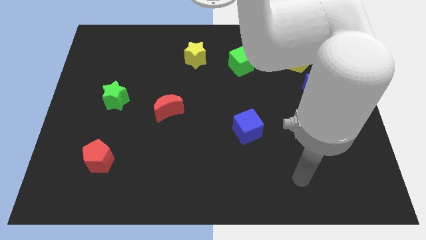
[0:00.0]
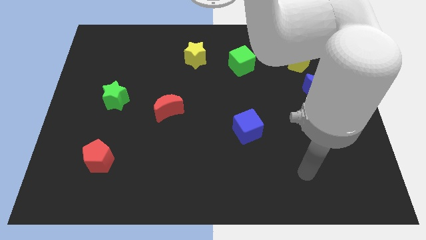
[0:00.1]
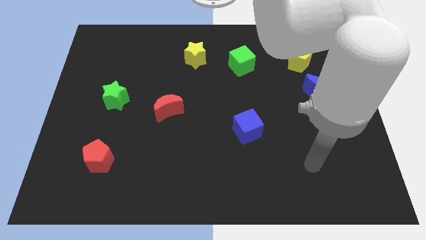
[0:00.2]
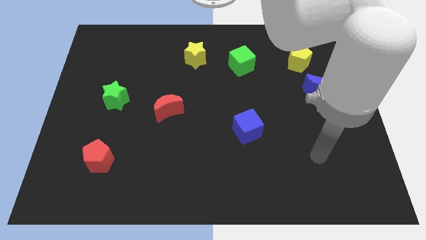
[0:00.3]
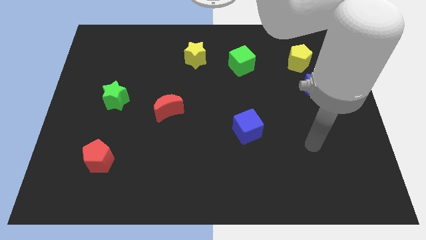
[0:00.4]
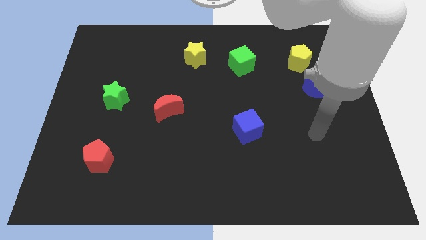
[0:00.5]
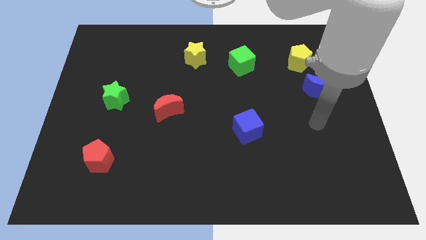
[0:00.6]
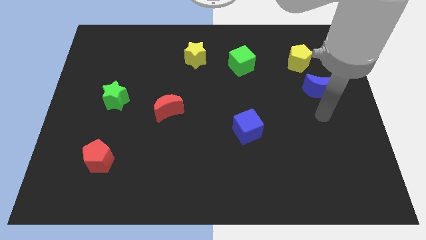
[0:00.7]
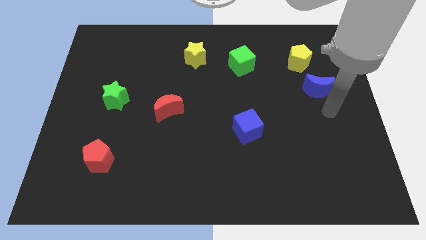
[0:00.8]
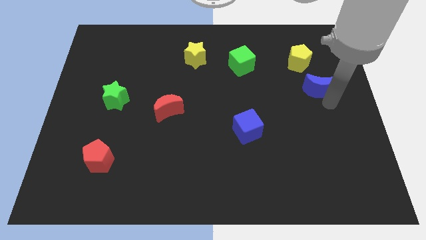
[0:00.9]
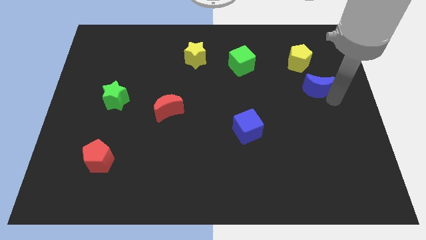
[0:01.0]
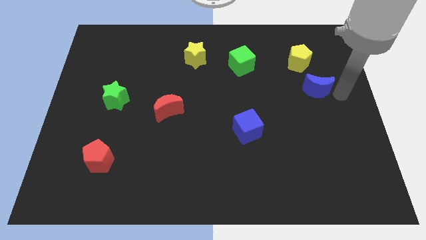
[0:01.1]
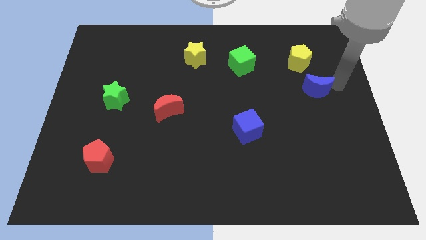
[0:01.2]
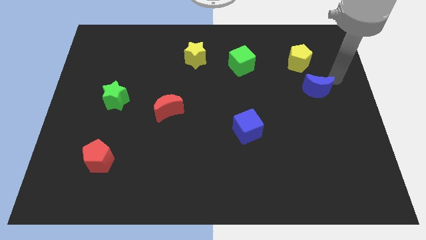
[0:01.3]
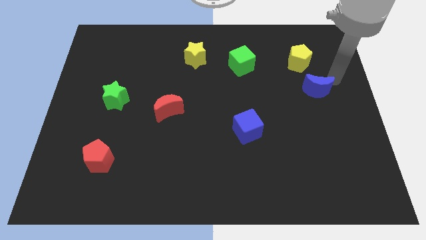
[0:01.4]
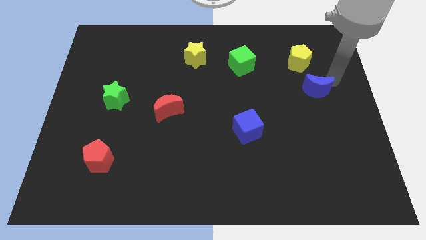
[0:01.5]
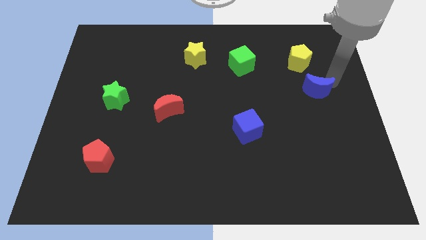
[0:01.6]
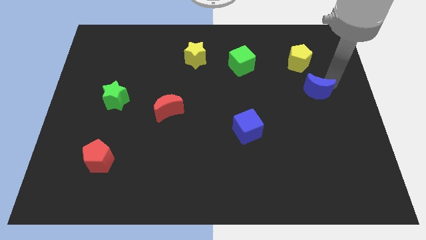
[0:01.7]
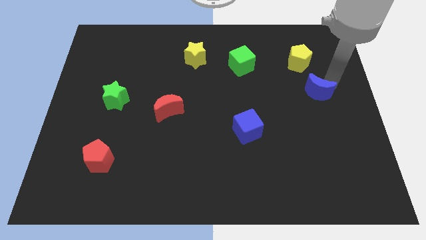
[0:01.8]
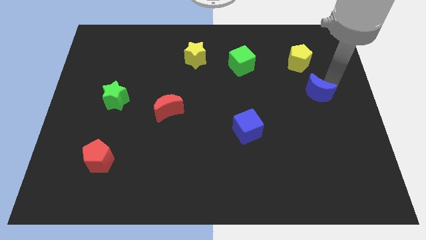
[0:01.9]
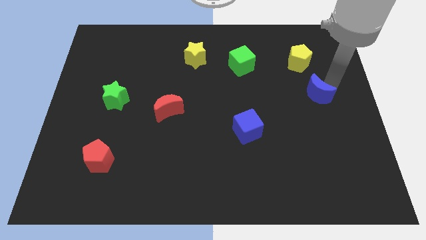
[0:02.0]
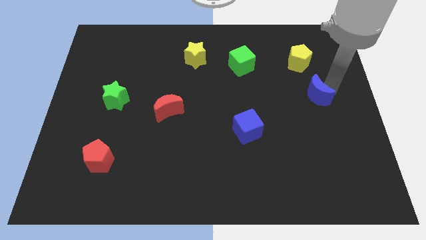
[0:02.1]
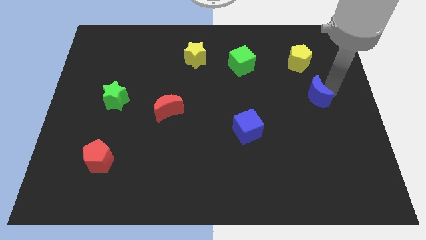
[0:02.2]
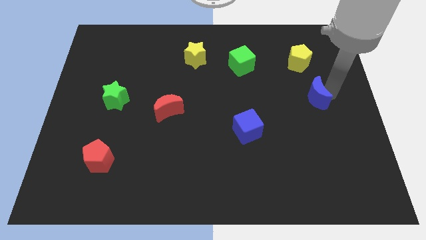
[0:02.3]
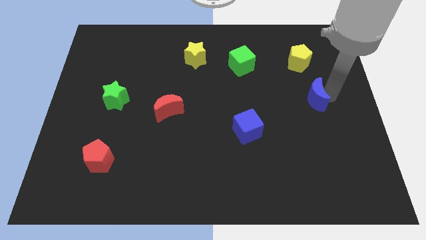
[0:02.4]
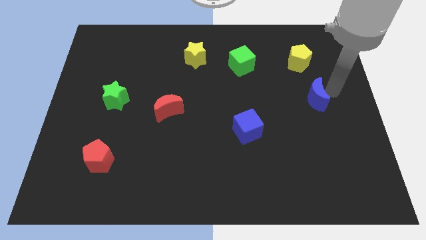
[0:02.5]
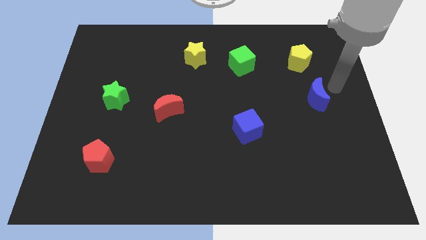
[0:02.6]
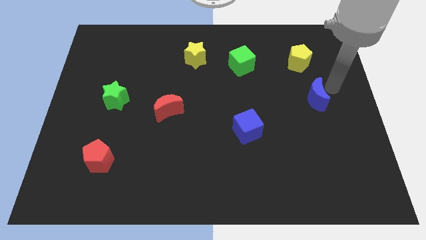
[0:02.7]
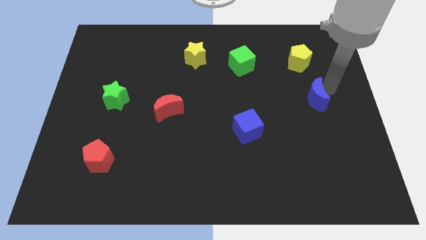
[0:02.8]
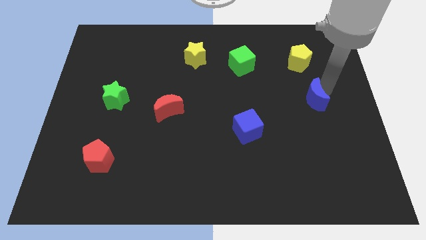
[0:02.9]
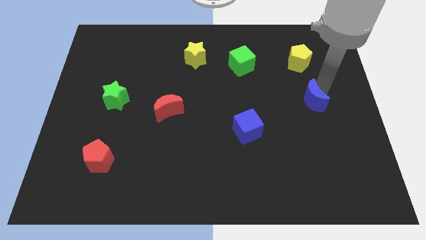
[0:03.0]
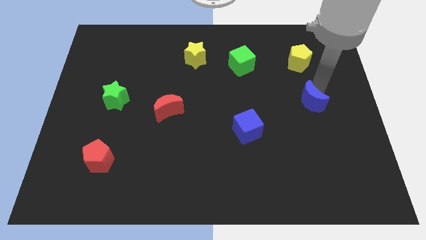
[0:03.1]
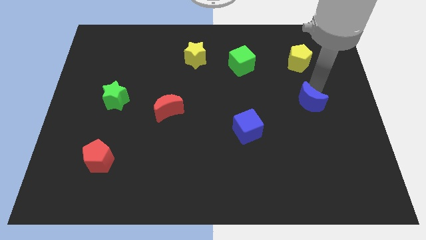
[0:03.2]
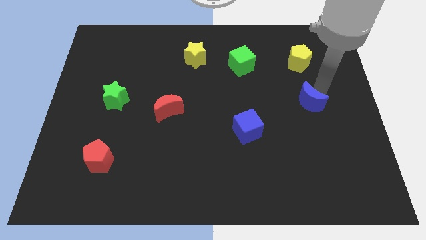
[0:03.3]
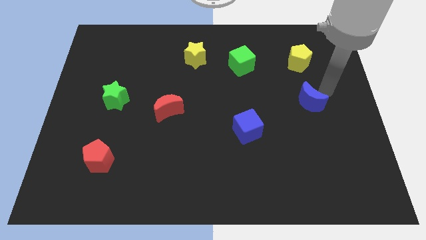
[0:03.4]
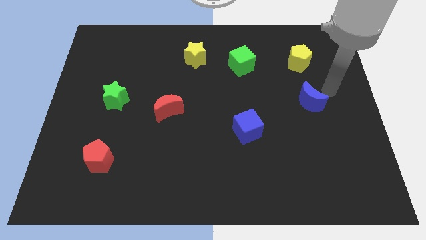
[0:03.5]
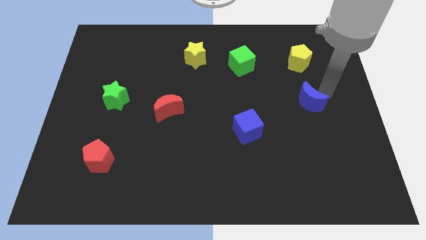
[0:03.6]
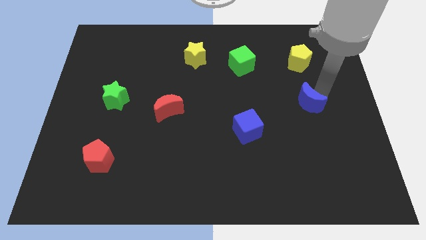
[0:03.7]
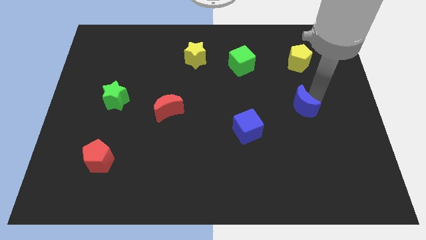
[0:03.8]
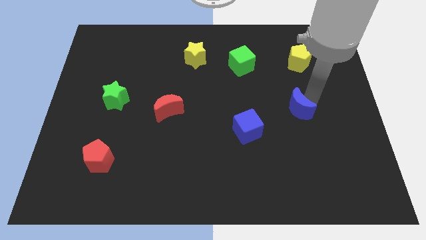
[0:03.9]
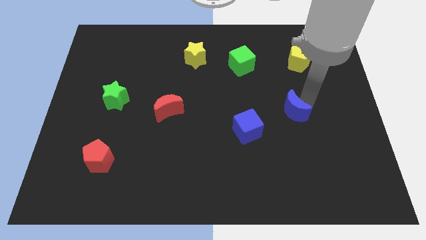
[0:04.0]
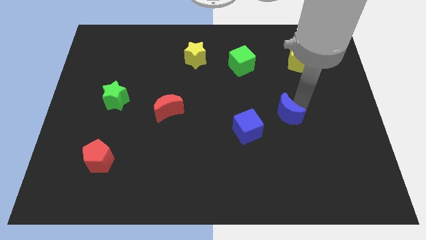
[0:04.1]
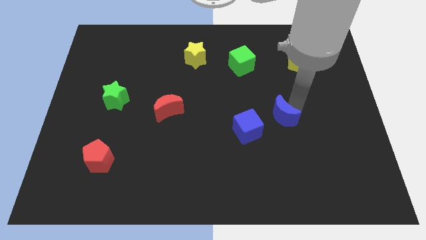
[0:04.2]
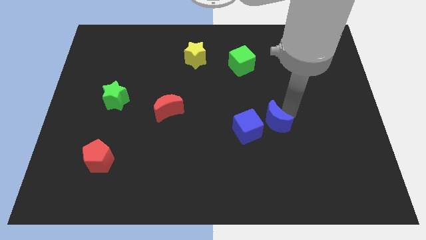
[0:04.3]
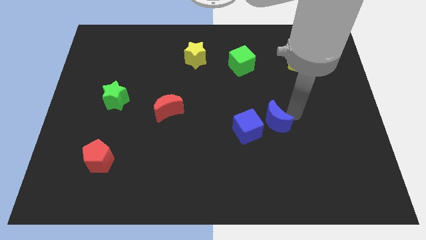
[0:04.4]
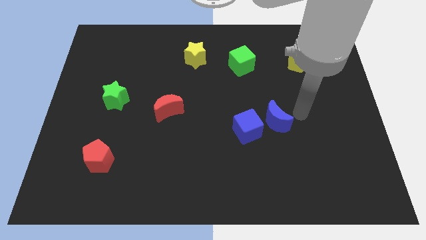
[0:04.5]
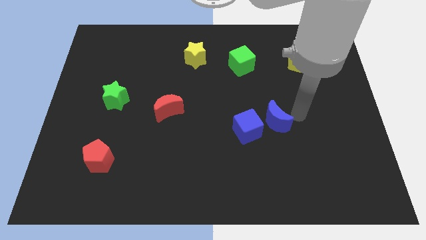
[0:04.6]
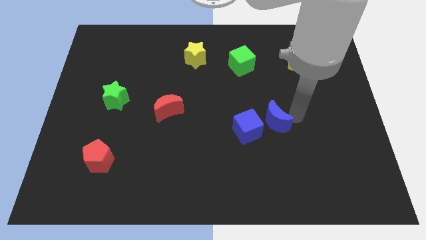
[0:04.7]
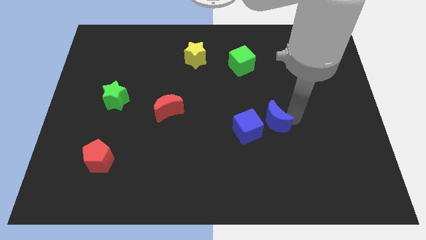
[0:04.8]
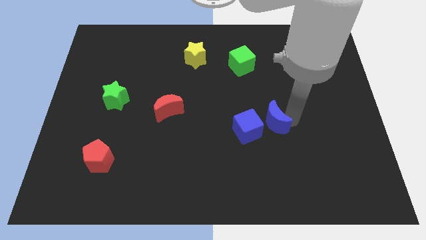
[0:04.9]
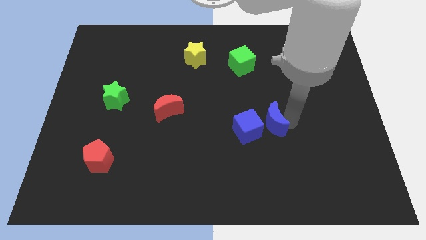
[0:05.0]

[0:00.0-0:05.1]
push the blue moon towards the blue cube

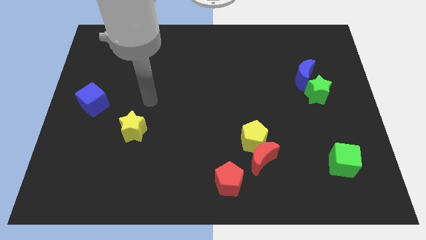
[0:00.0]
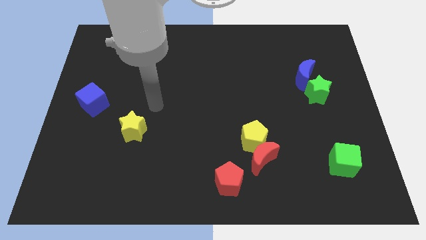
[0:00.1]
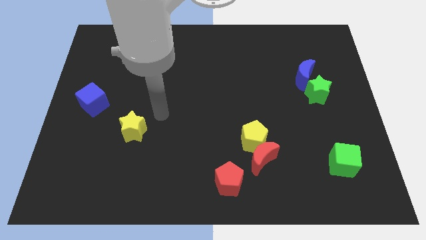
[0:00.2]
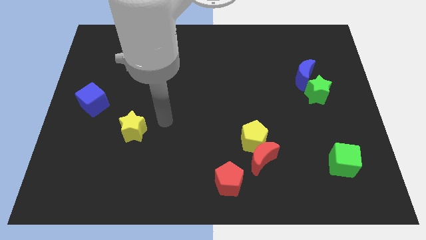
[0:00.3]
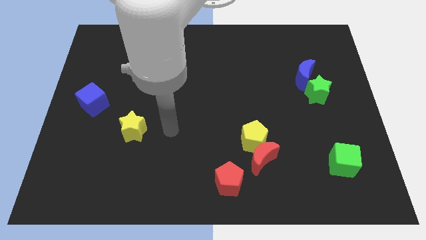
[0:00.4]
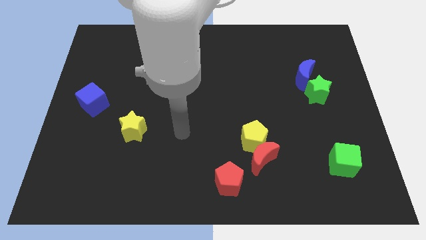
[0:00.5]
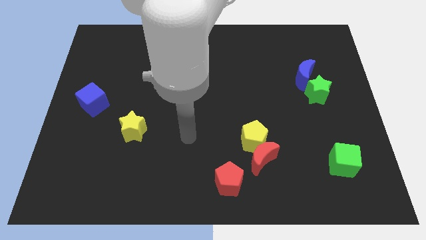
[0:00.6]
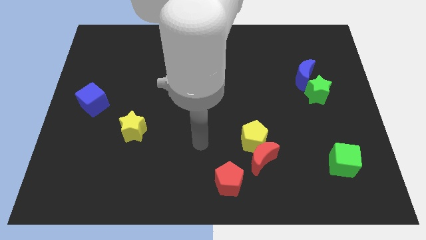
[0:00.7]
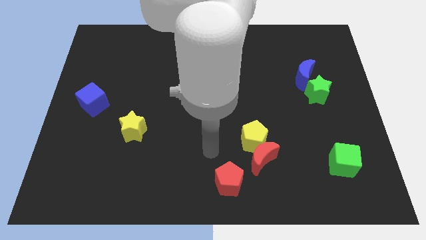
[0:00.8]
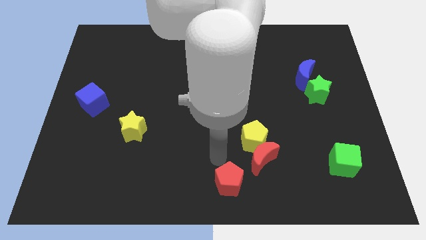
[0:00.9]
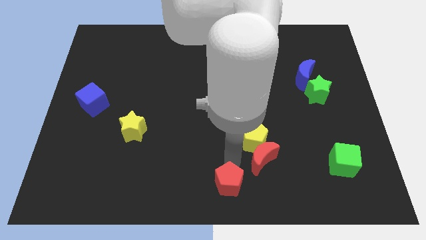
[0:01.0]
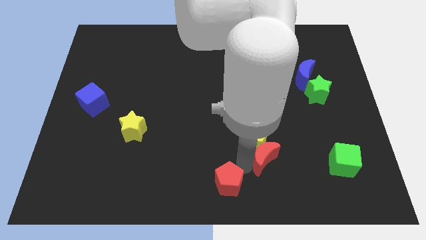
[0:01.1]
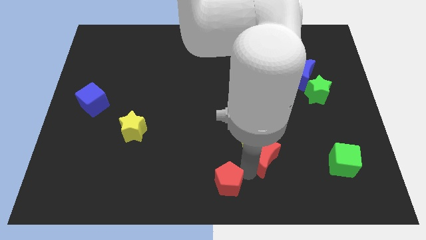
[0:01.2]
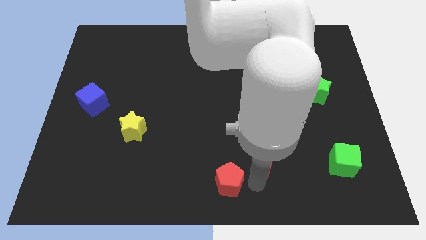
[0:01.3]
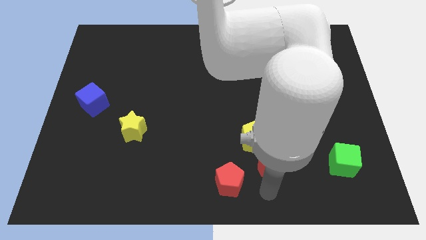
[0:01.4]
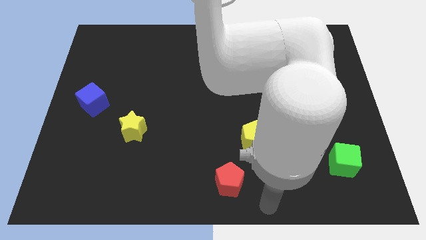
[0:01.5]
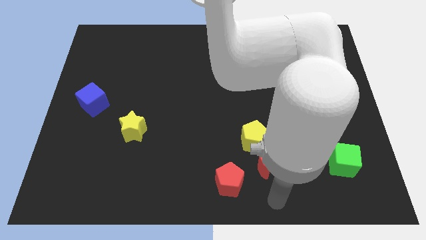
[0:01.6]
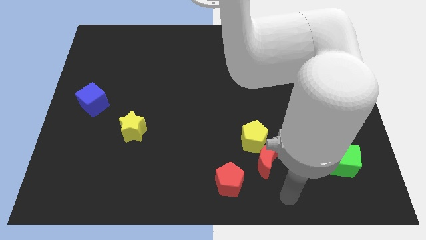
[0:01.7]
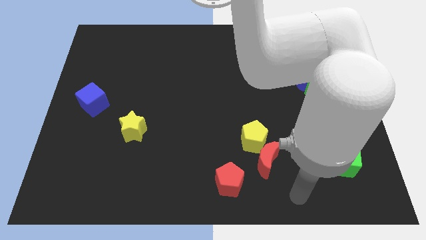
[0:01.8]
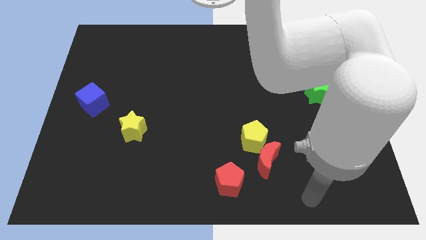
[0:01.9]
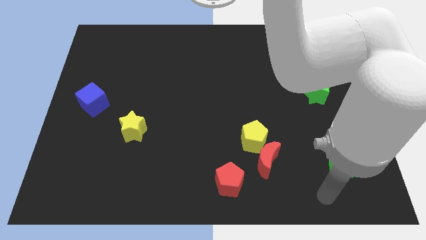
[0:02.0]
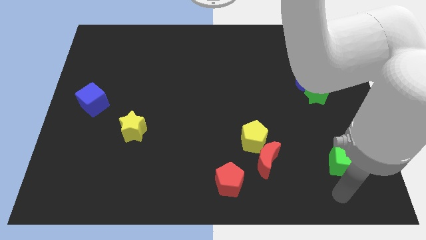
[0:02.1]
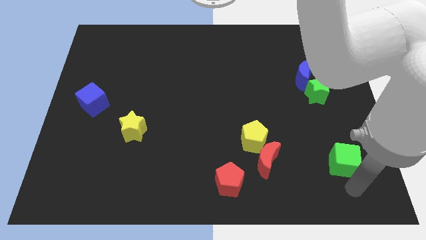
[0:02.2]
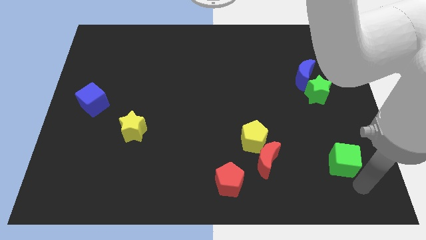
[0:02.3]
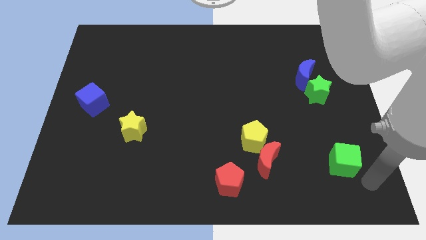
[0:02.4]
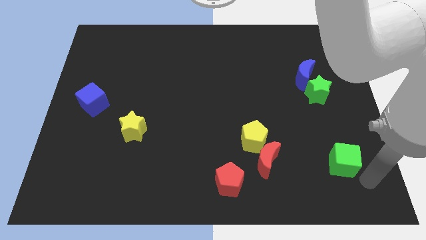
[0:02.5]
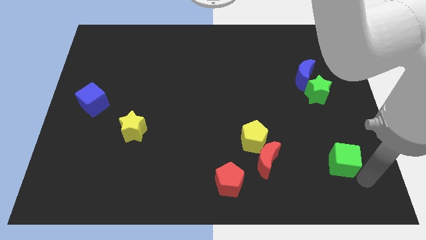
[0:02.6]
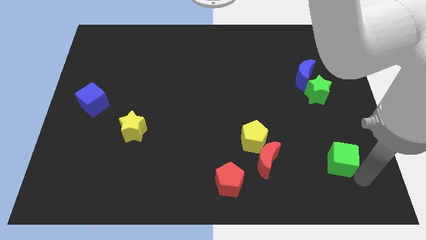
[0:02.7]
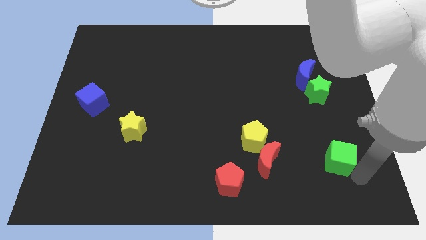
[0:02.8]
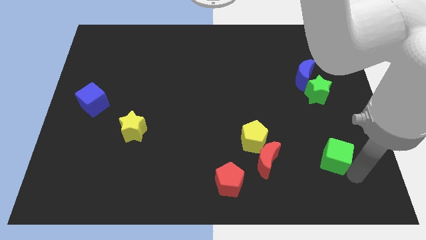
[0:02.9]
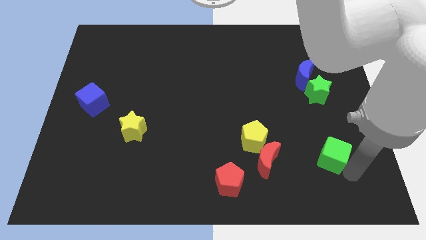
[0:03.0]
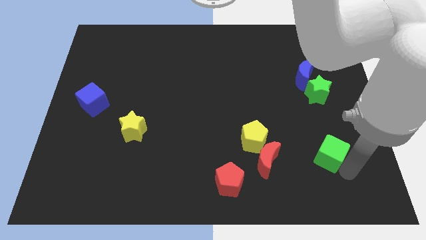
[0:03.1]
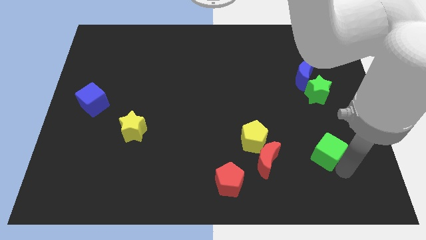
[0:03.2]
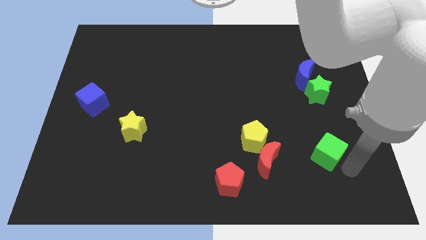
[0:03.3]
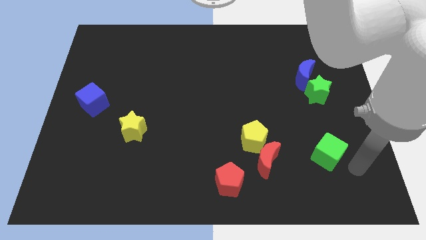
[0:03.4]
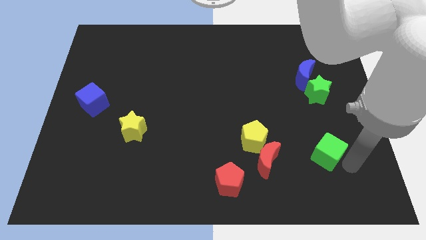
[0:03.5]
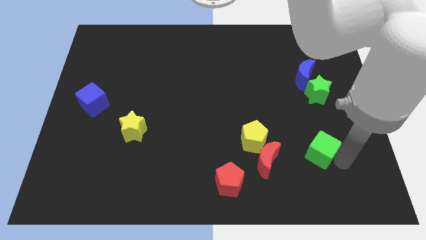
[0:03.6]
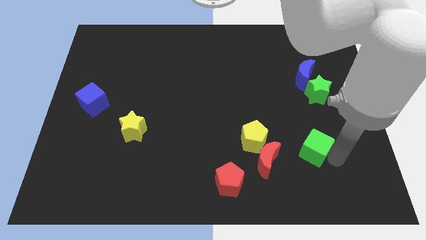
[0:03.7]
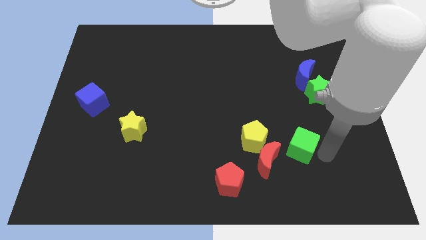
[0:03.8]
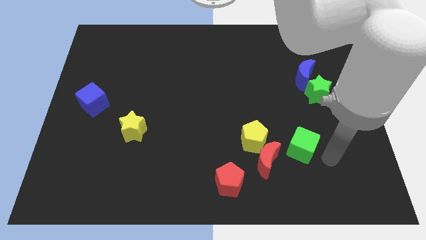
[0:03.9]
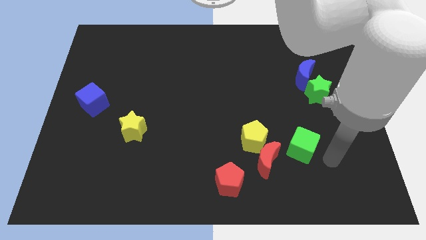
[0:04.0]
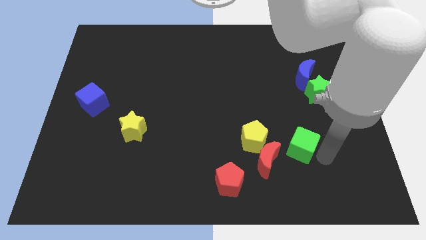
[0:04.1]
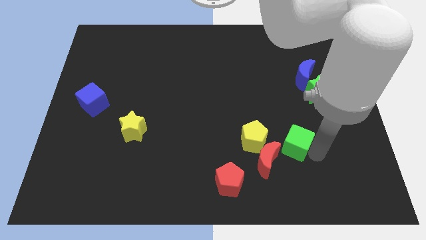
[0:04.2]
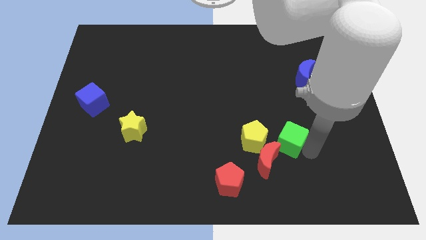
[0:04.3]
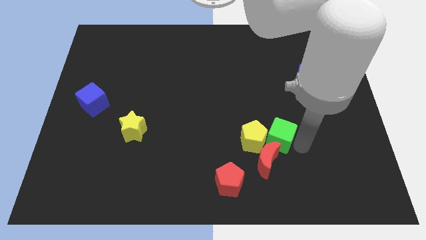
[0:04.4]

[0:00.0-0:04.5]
put the green cube close to the yellow pentagon
